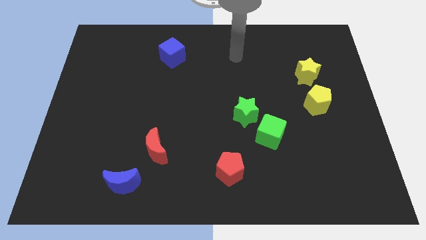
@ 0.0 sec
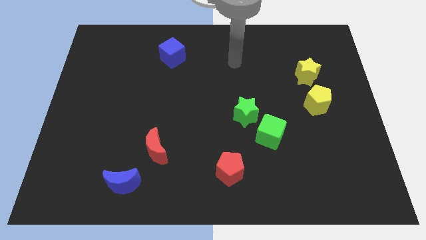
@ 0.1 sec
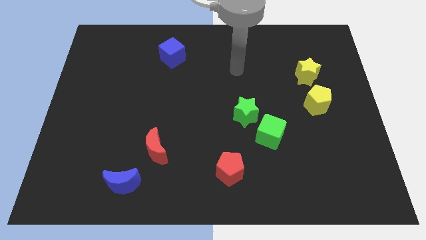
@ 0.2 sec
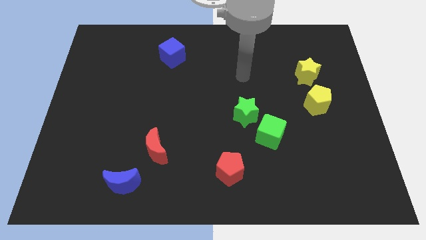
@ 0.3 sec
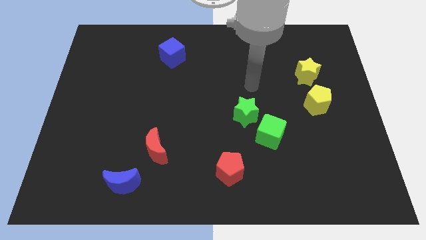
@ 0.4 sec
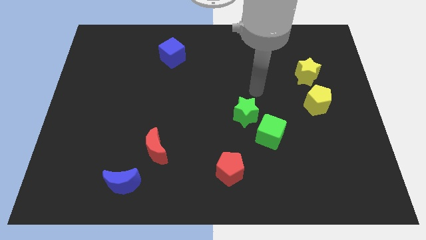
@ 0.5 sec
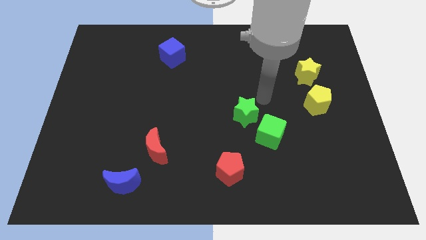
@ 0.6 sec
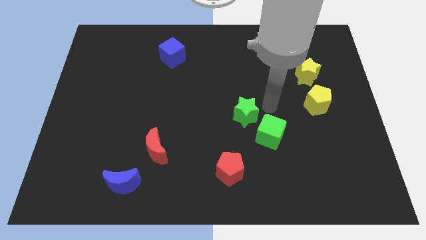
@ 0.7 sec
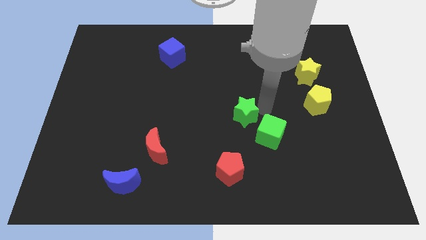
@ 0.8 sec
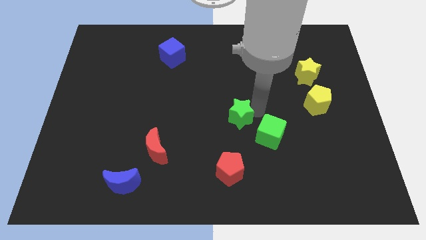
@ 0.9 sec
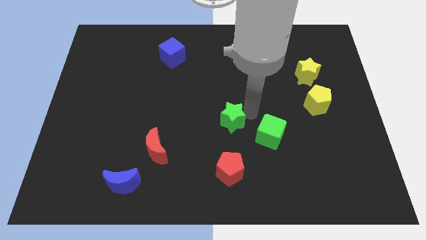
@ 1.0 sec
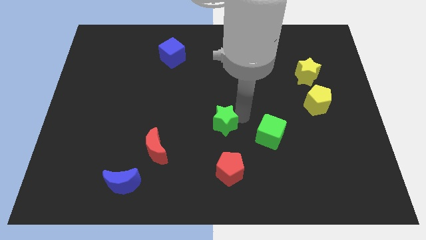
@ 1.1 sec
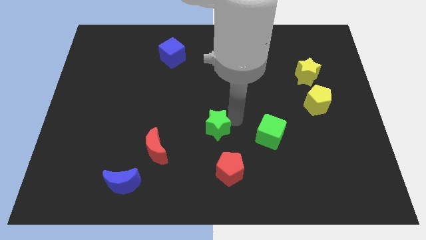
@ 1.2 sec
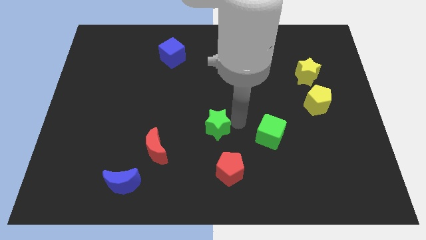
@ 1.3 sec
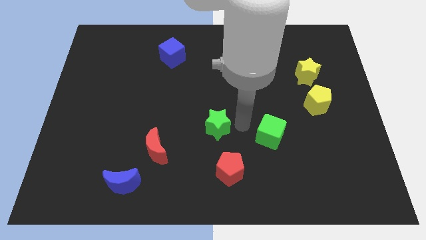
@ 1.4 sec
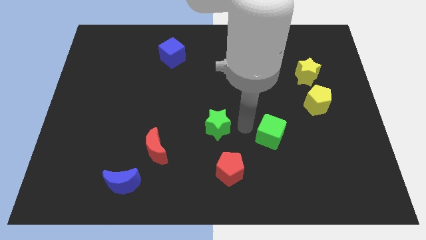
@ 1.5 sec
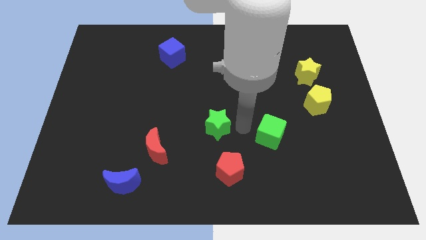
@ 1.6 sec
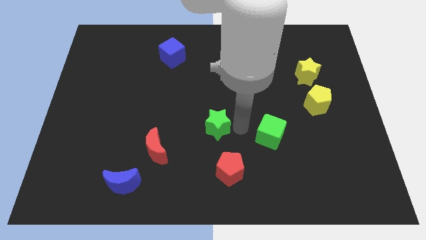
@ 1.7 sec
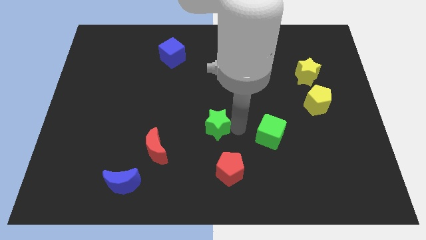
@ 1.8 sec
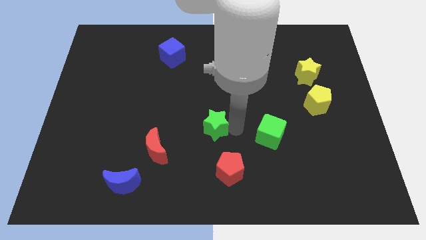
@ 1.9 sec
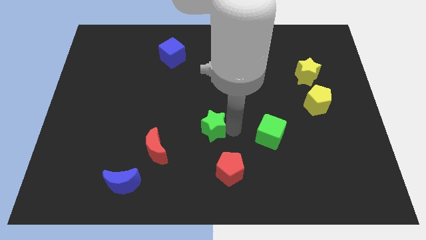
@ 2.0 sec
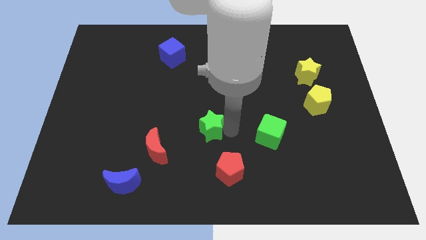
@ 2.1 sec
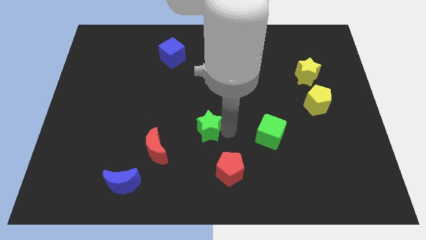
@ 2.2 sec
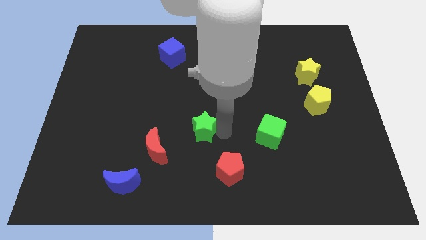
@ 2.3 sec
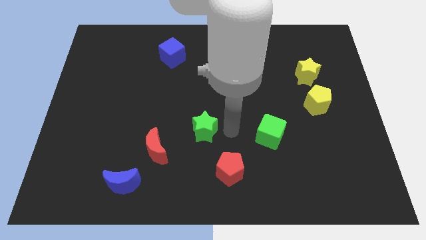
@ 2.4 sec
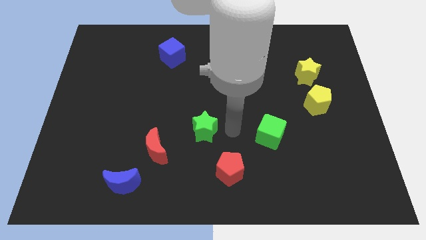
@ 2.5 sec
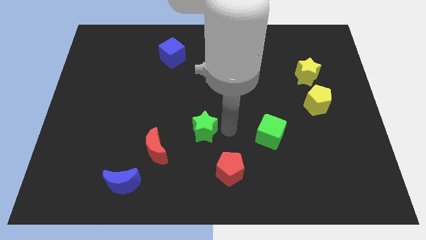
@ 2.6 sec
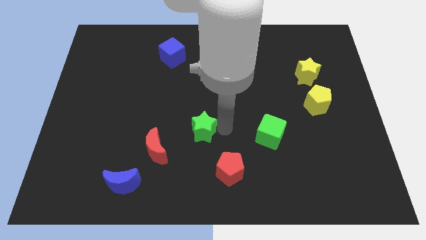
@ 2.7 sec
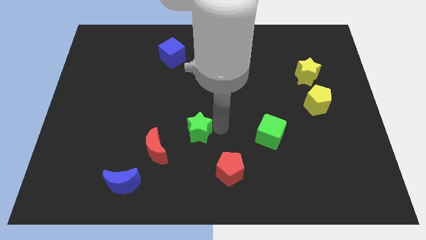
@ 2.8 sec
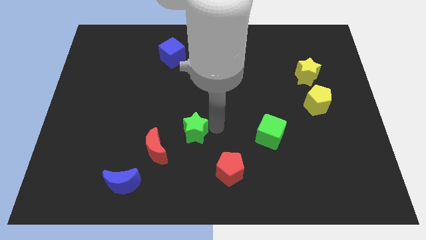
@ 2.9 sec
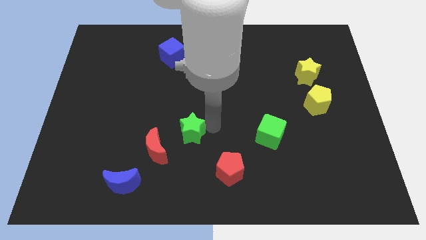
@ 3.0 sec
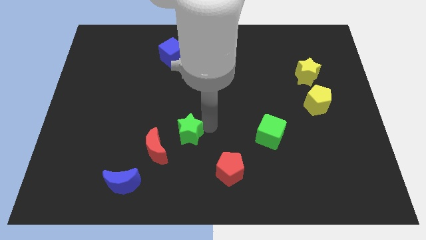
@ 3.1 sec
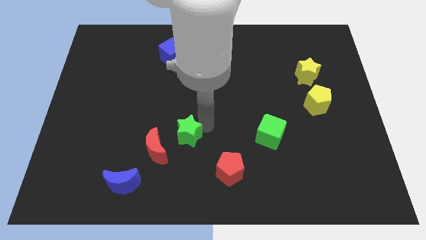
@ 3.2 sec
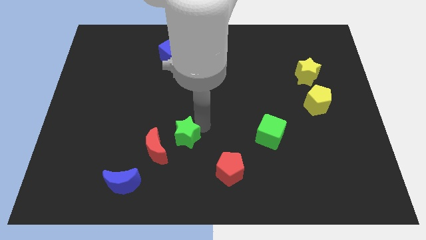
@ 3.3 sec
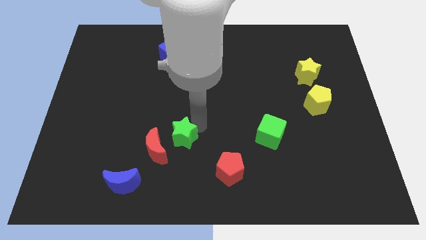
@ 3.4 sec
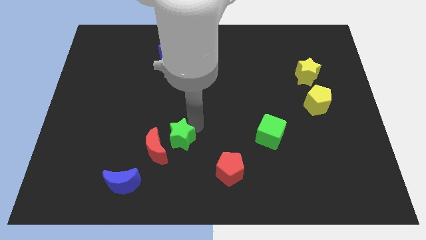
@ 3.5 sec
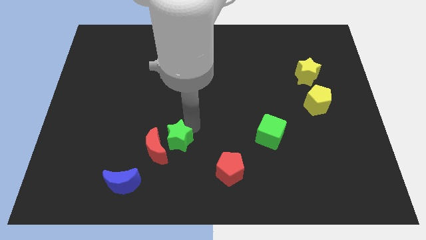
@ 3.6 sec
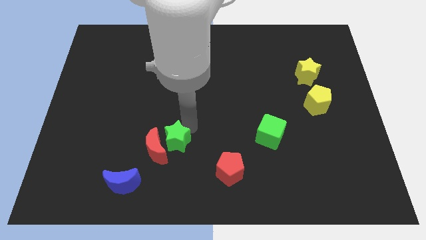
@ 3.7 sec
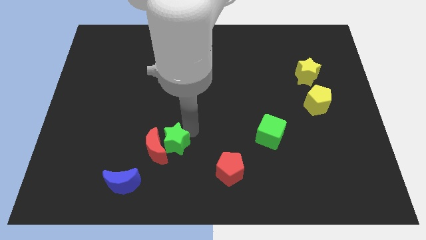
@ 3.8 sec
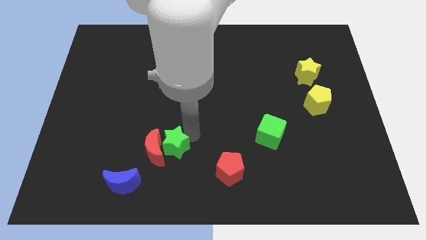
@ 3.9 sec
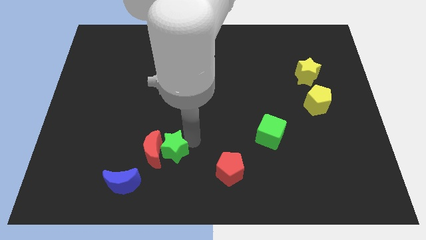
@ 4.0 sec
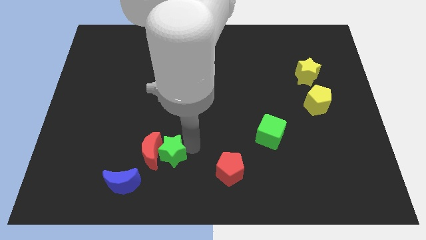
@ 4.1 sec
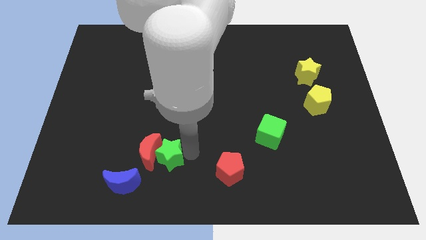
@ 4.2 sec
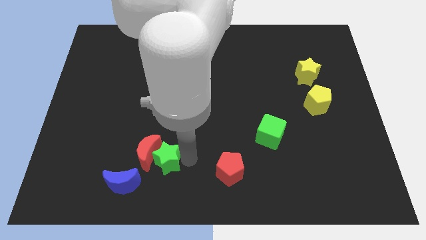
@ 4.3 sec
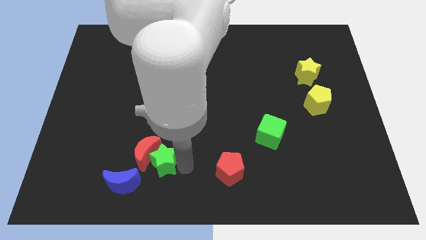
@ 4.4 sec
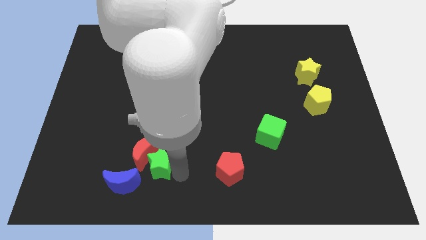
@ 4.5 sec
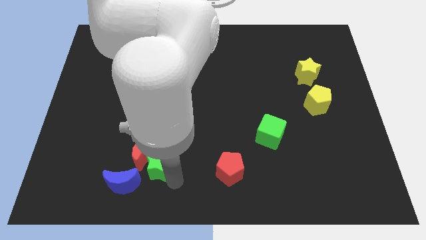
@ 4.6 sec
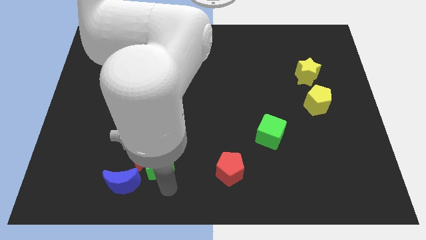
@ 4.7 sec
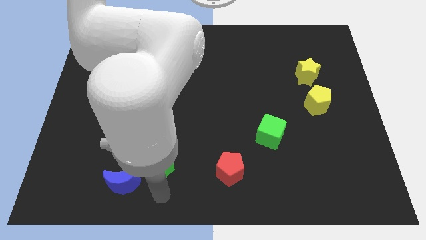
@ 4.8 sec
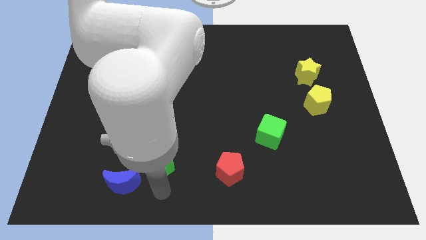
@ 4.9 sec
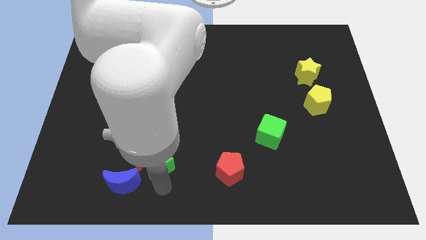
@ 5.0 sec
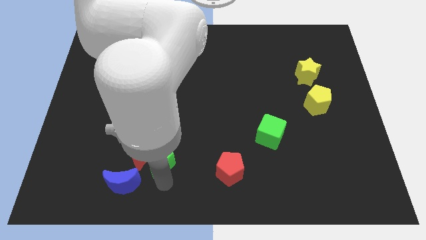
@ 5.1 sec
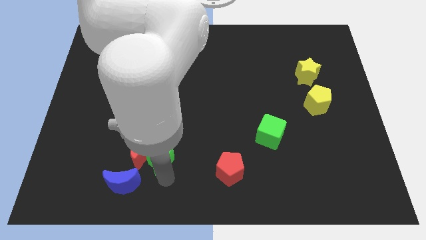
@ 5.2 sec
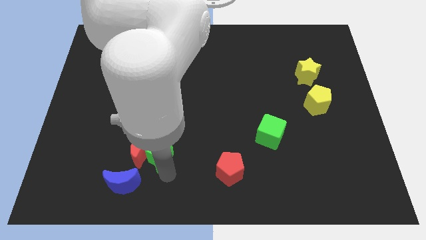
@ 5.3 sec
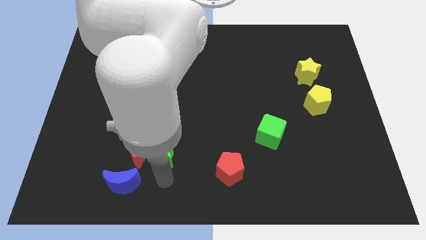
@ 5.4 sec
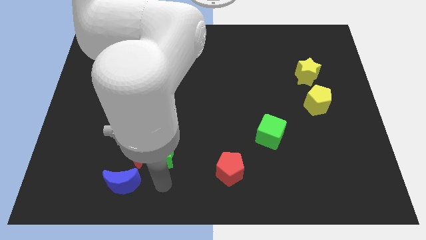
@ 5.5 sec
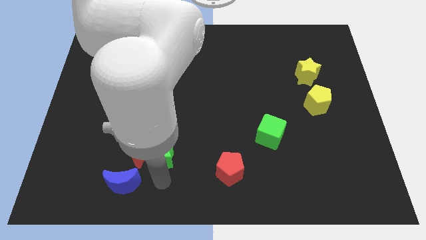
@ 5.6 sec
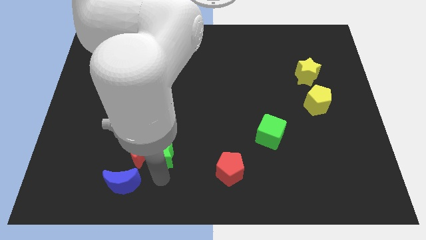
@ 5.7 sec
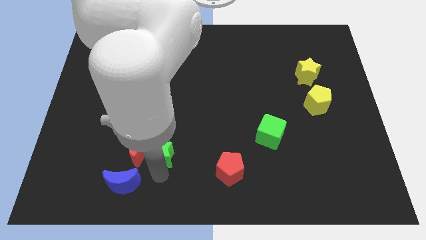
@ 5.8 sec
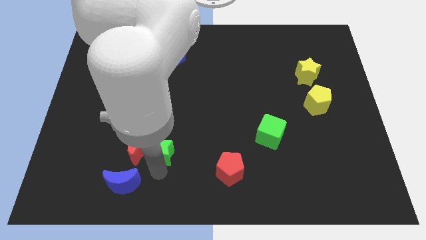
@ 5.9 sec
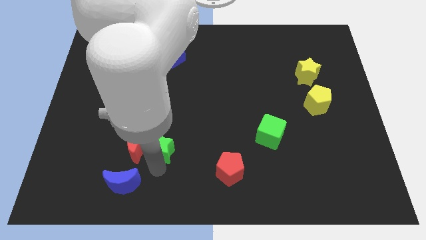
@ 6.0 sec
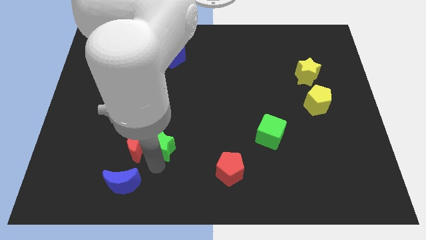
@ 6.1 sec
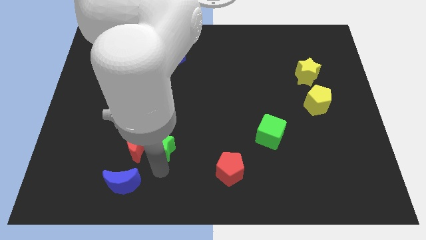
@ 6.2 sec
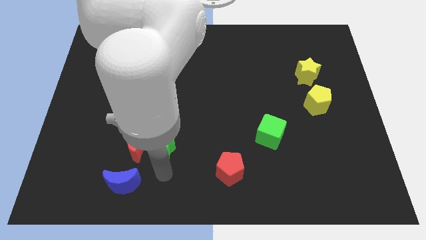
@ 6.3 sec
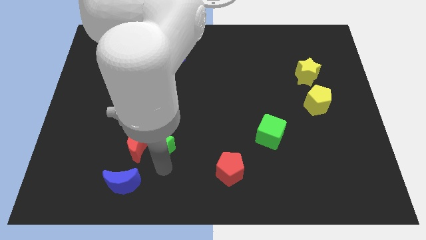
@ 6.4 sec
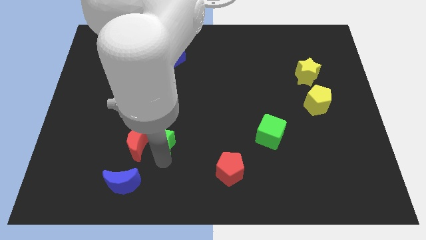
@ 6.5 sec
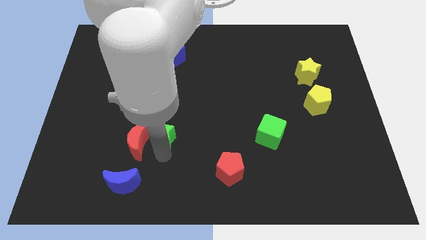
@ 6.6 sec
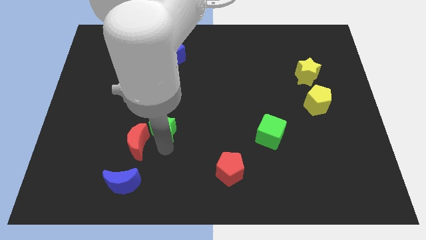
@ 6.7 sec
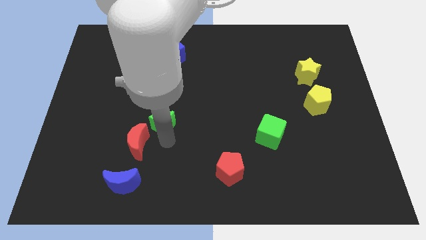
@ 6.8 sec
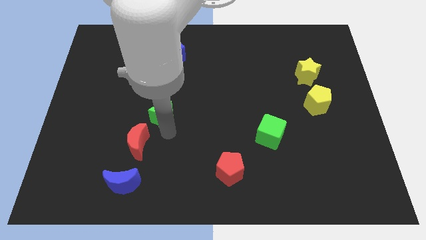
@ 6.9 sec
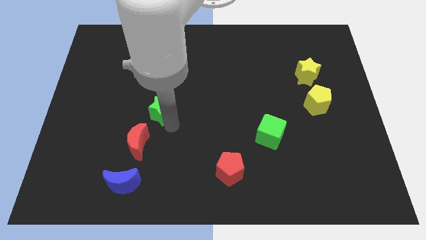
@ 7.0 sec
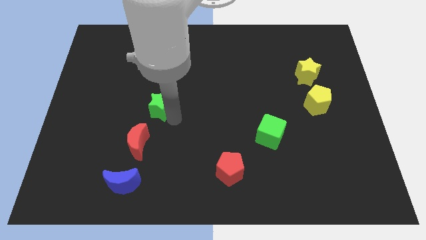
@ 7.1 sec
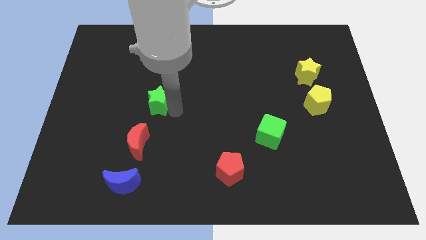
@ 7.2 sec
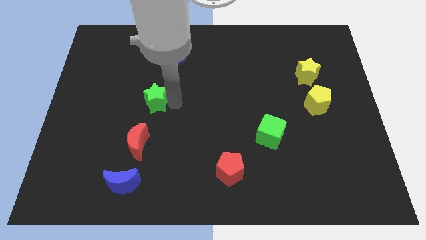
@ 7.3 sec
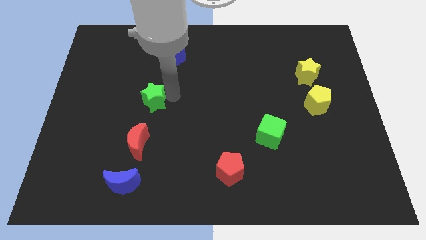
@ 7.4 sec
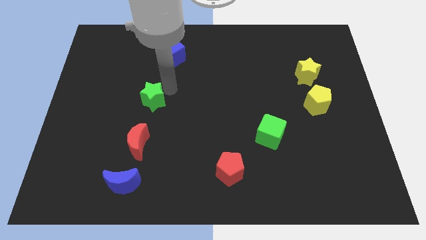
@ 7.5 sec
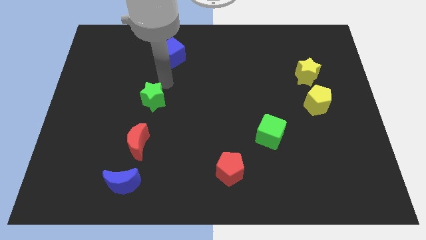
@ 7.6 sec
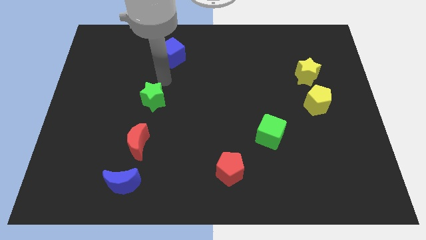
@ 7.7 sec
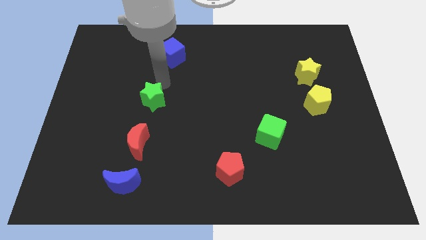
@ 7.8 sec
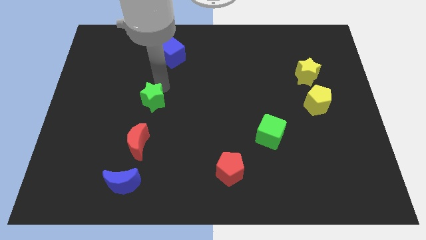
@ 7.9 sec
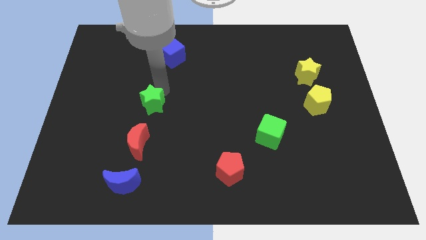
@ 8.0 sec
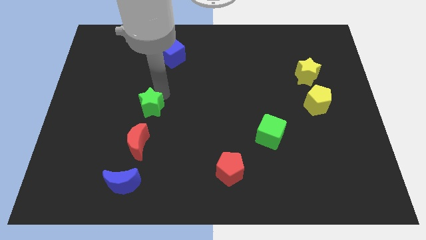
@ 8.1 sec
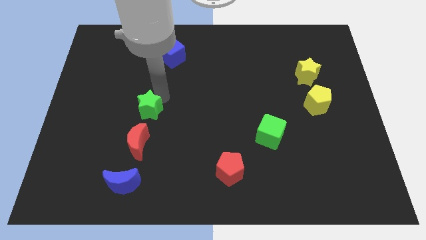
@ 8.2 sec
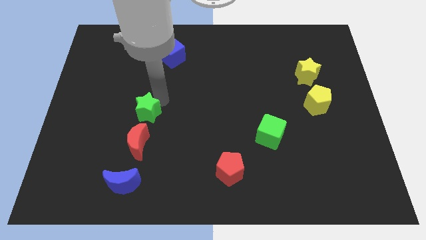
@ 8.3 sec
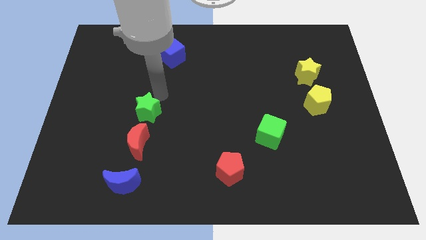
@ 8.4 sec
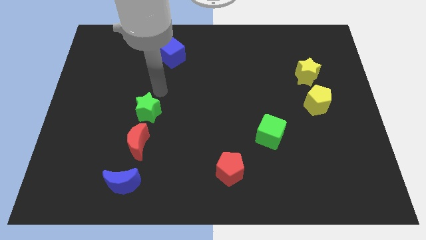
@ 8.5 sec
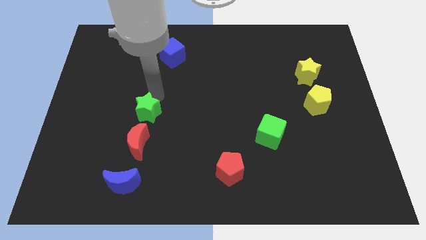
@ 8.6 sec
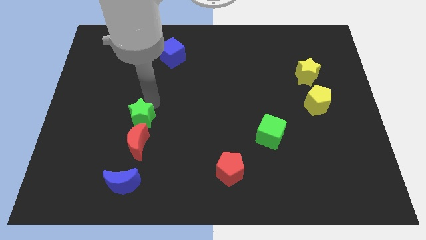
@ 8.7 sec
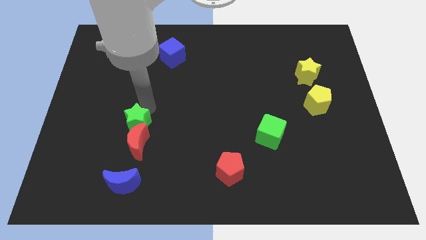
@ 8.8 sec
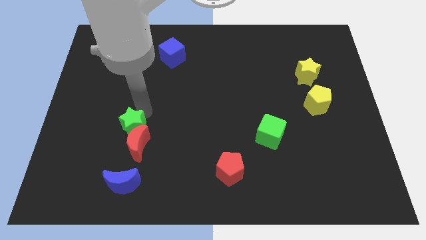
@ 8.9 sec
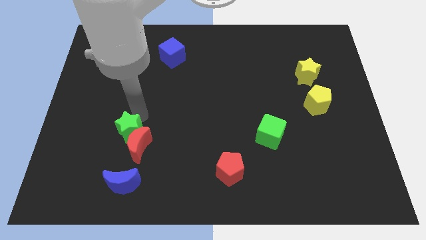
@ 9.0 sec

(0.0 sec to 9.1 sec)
slide the green star to the left of the red moon
